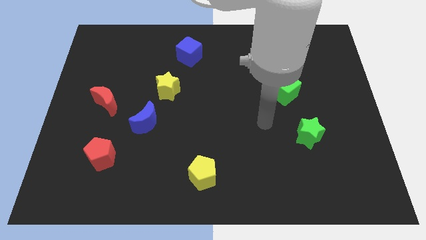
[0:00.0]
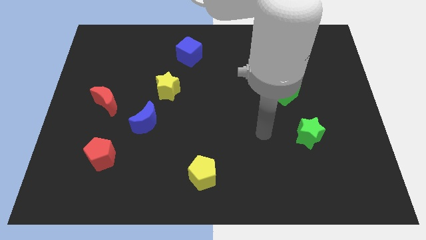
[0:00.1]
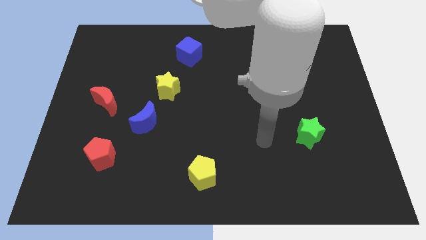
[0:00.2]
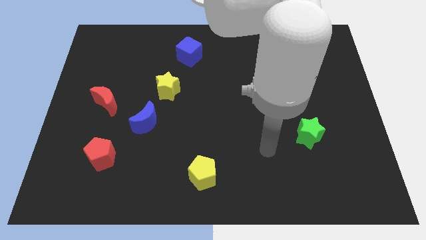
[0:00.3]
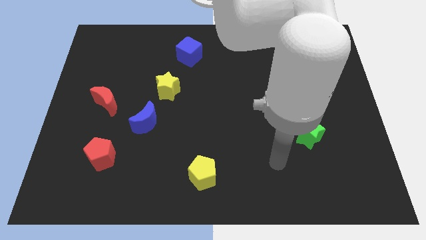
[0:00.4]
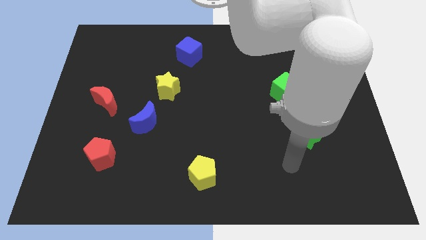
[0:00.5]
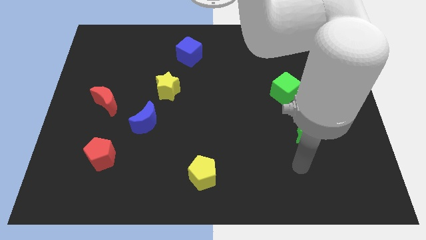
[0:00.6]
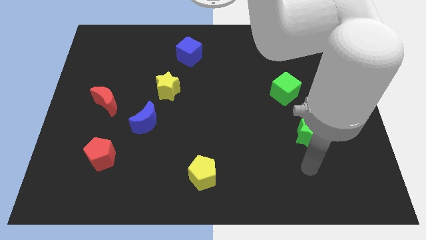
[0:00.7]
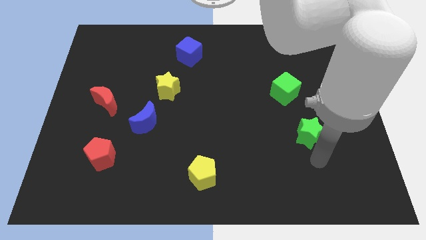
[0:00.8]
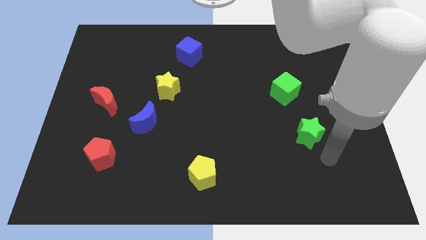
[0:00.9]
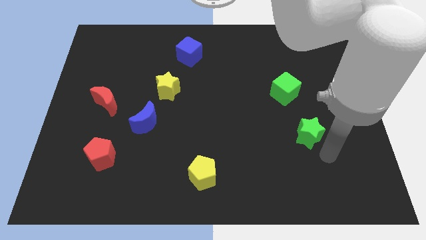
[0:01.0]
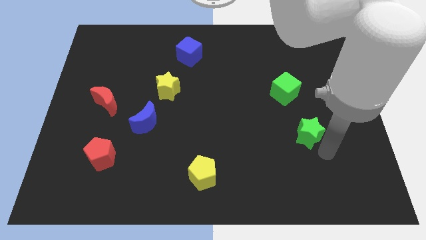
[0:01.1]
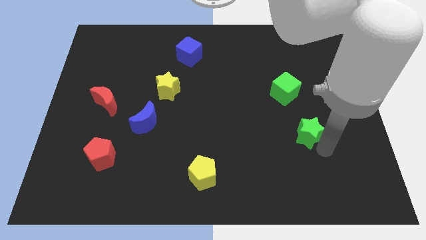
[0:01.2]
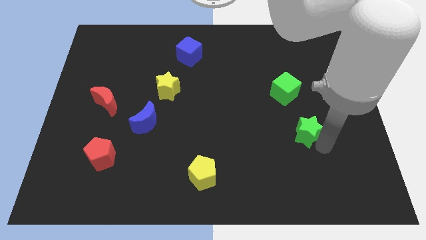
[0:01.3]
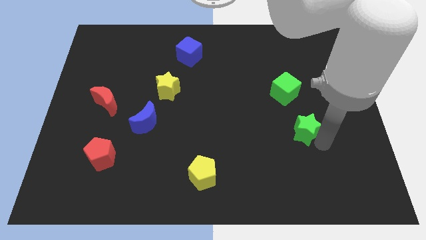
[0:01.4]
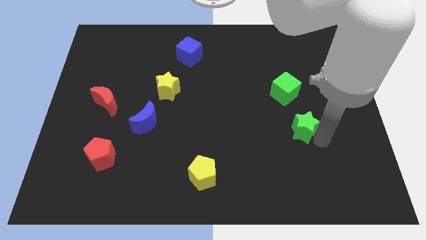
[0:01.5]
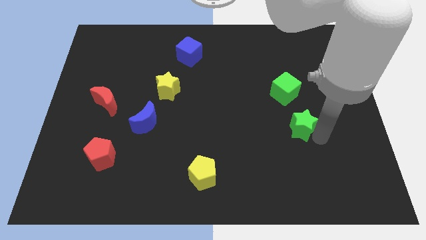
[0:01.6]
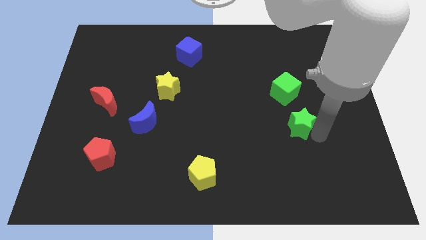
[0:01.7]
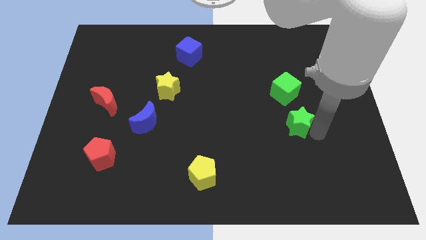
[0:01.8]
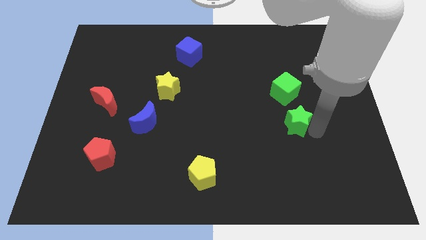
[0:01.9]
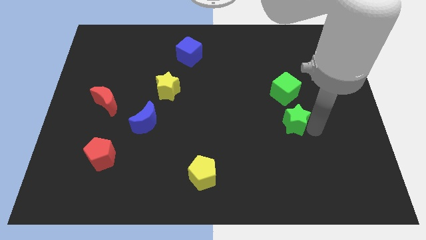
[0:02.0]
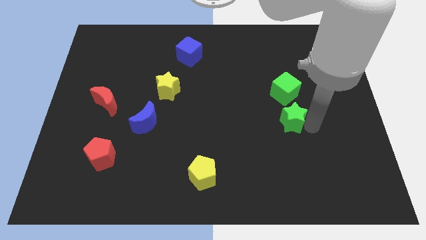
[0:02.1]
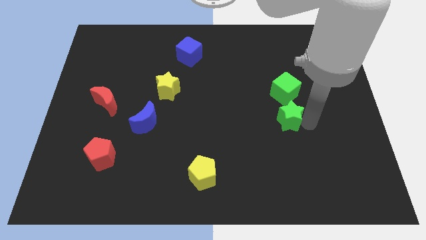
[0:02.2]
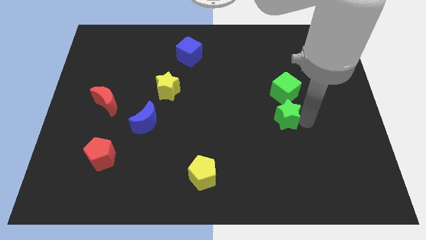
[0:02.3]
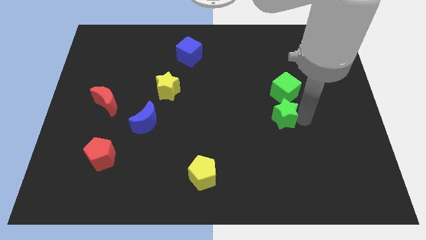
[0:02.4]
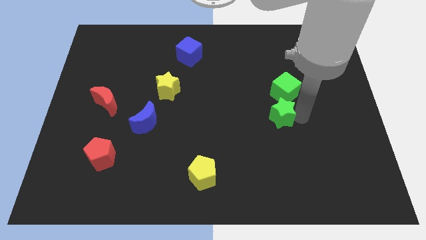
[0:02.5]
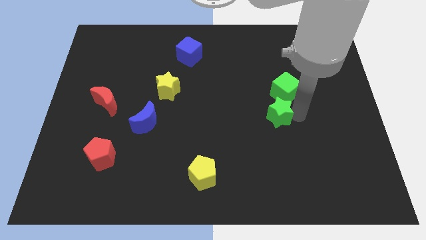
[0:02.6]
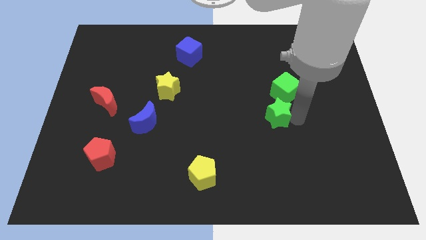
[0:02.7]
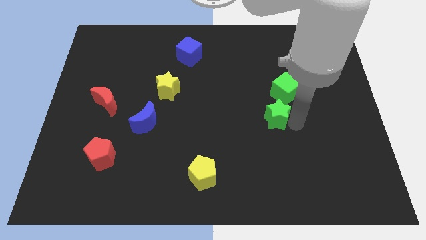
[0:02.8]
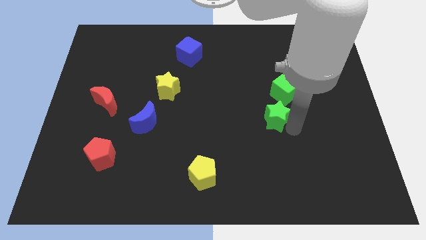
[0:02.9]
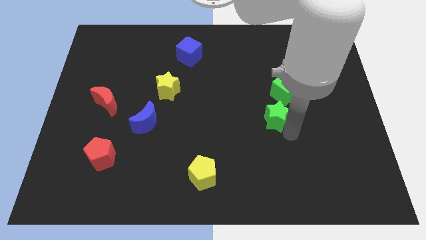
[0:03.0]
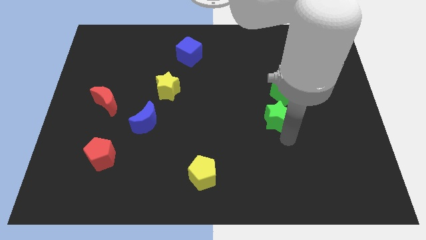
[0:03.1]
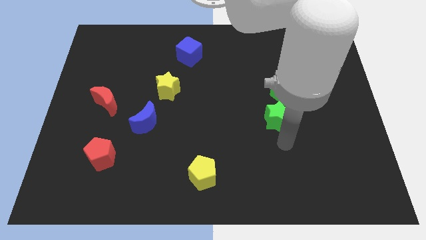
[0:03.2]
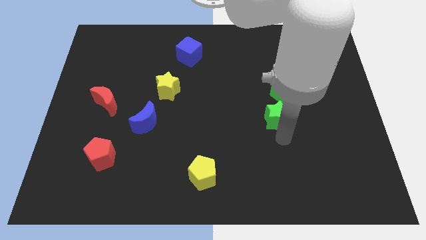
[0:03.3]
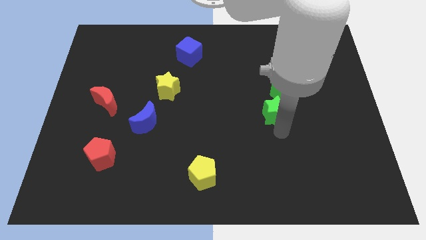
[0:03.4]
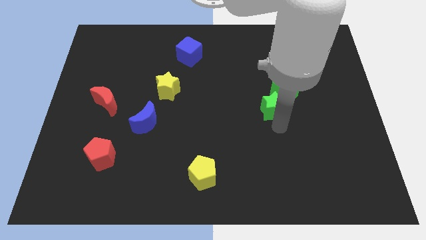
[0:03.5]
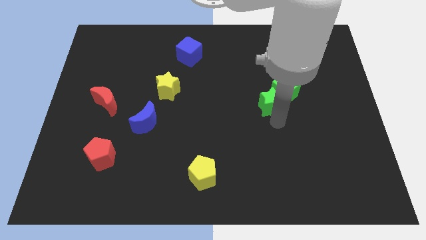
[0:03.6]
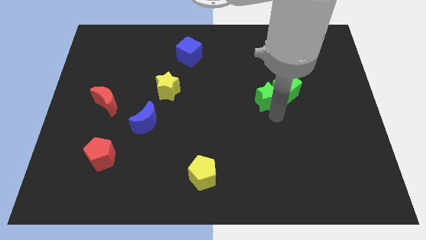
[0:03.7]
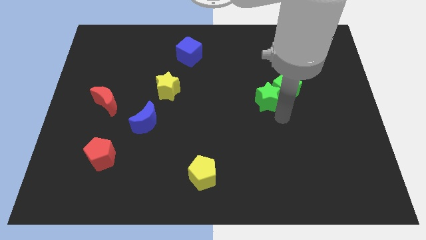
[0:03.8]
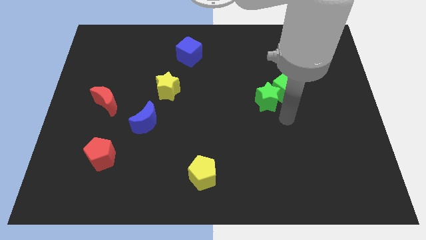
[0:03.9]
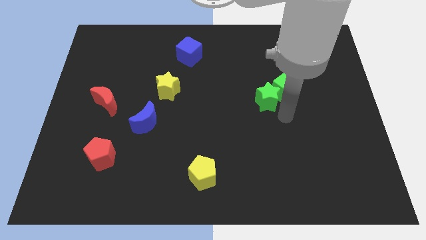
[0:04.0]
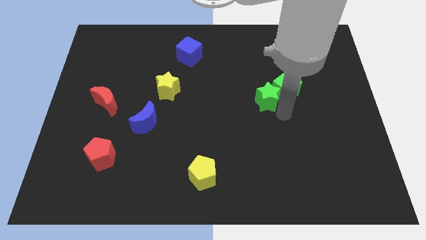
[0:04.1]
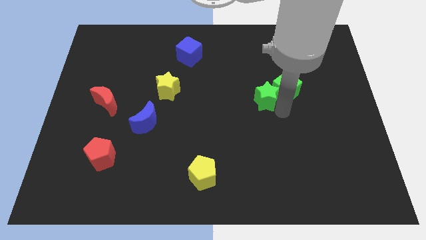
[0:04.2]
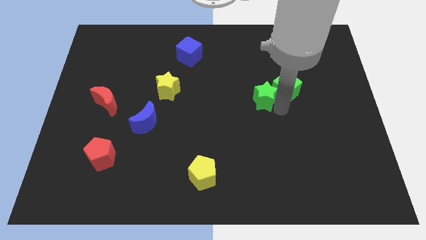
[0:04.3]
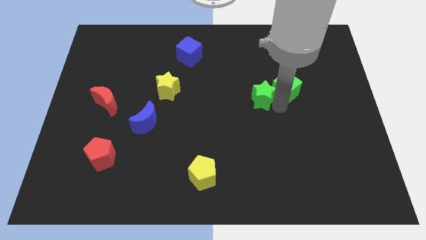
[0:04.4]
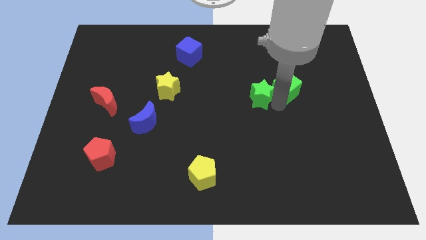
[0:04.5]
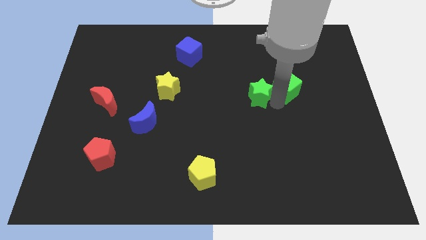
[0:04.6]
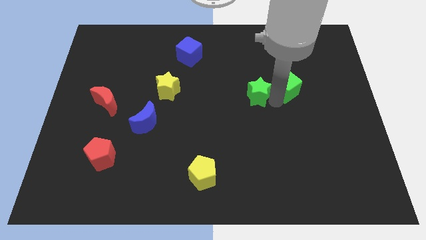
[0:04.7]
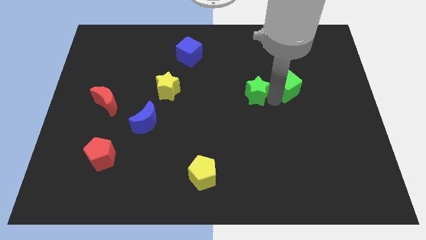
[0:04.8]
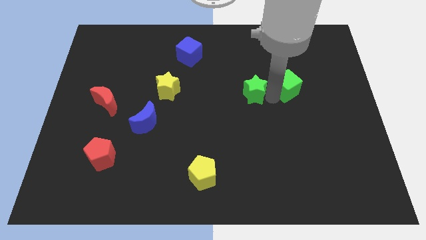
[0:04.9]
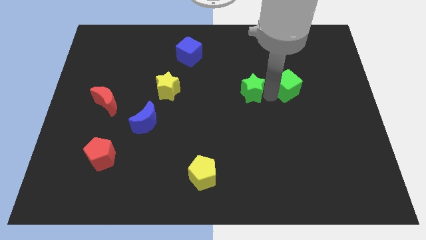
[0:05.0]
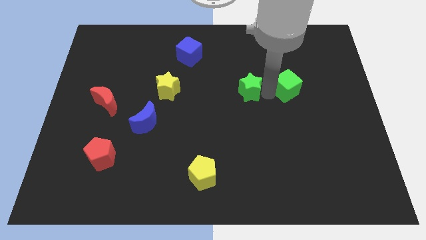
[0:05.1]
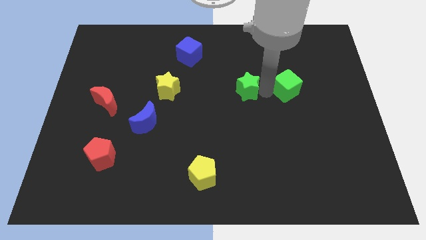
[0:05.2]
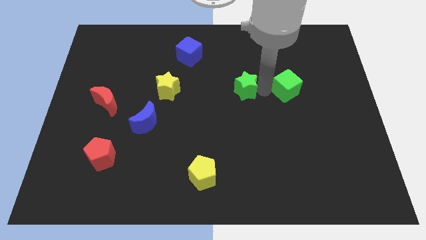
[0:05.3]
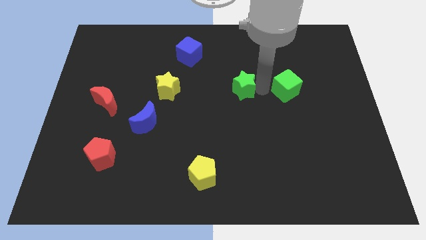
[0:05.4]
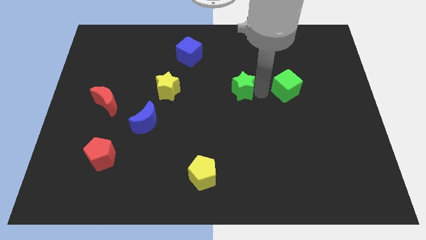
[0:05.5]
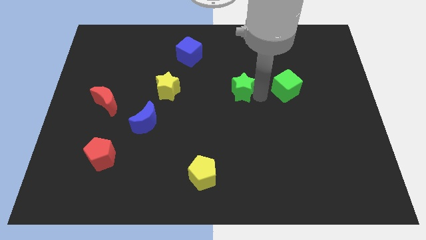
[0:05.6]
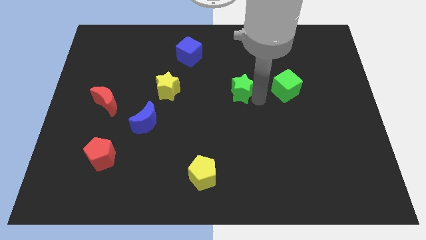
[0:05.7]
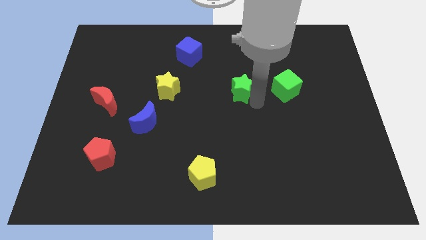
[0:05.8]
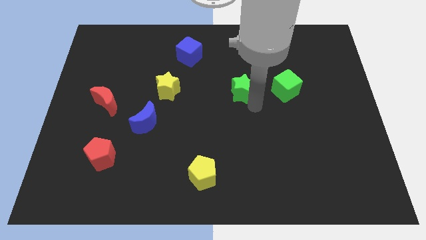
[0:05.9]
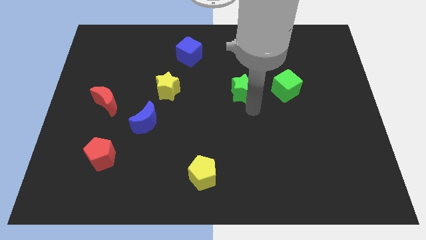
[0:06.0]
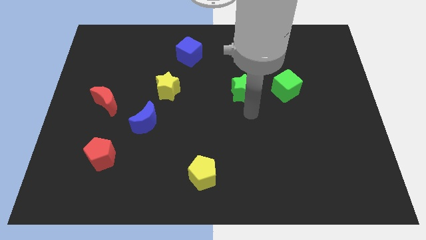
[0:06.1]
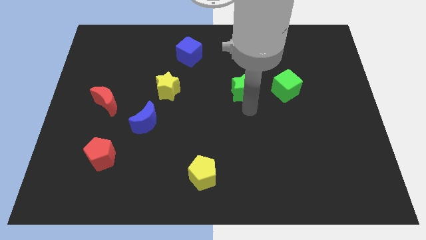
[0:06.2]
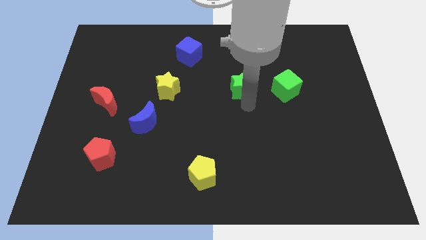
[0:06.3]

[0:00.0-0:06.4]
slide the green star upwards and to the left

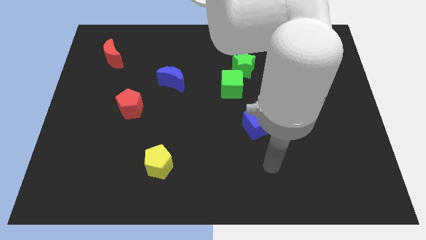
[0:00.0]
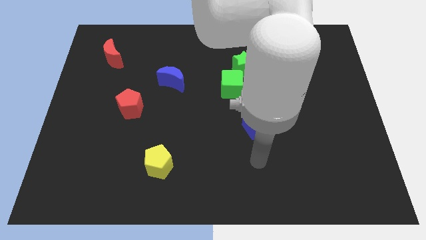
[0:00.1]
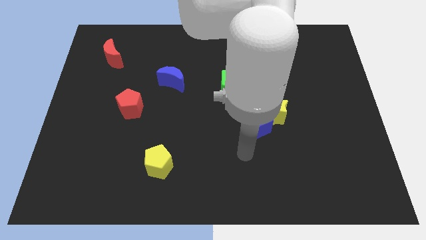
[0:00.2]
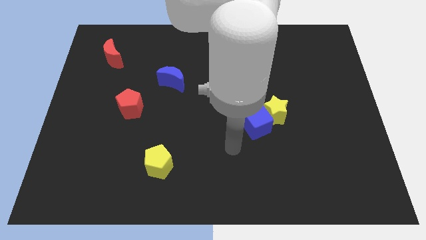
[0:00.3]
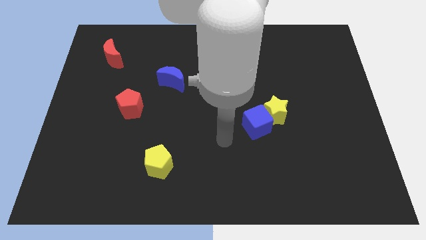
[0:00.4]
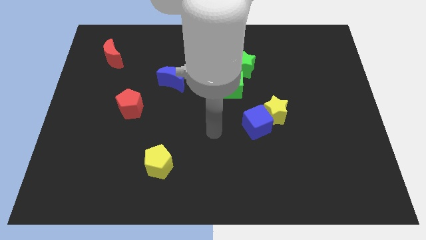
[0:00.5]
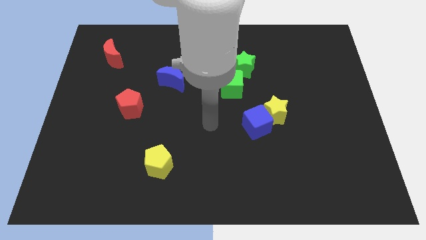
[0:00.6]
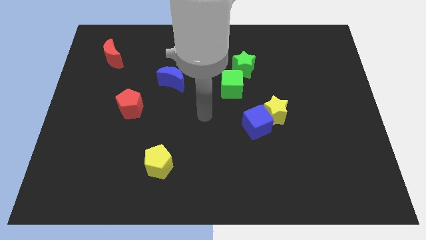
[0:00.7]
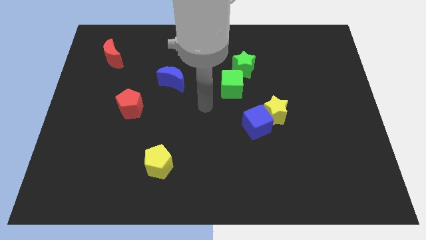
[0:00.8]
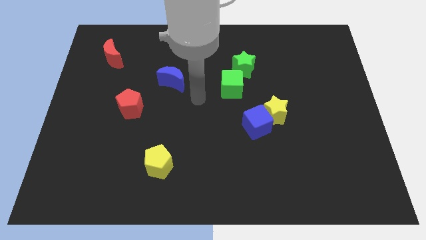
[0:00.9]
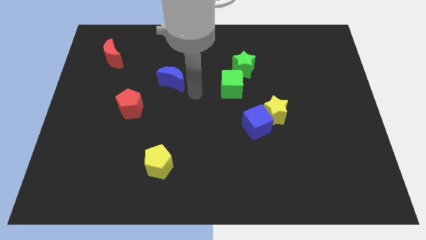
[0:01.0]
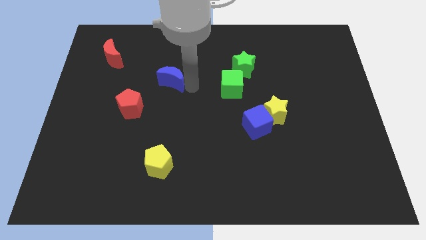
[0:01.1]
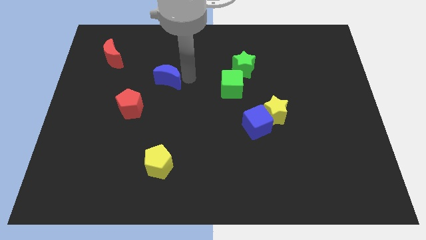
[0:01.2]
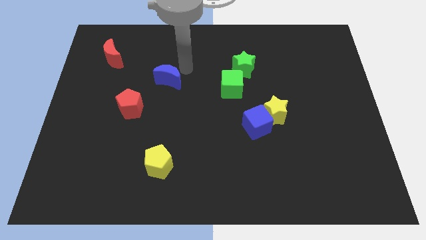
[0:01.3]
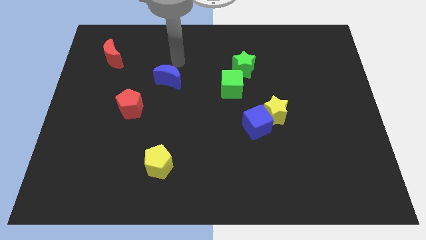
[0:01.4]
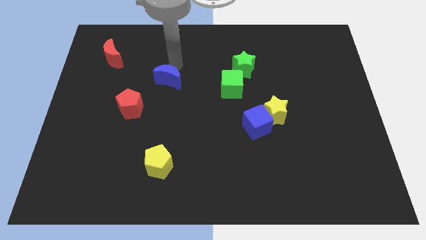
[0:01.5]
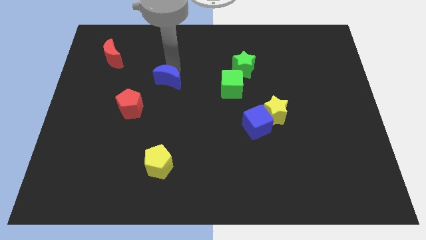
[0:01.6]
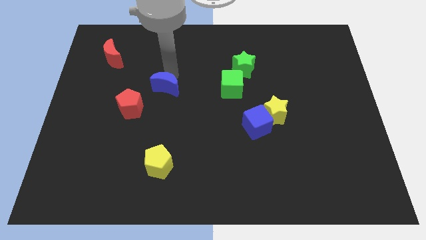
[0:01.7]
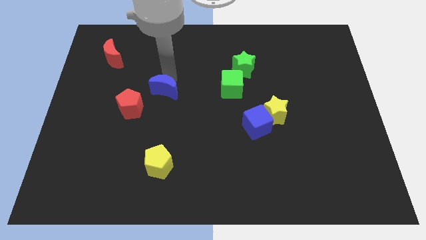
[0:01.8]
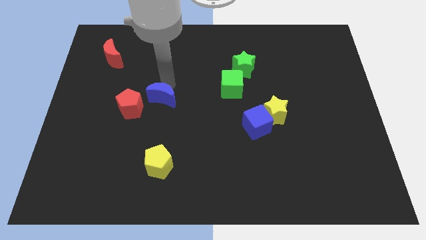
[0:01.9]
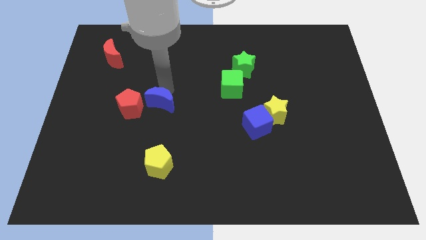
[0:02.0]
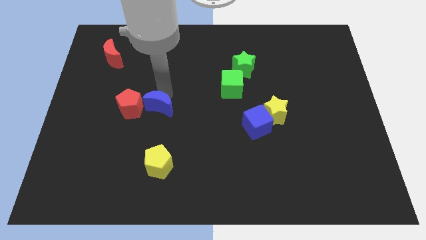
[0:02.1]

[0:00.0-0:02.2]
push the blue moon diagonally downwards and left slightly
